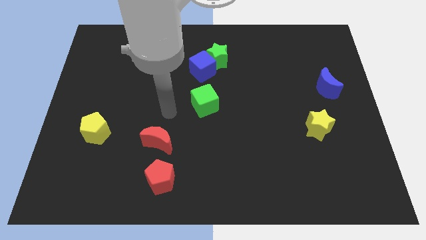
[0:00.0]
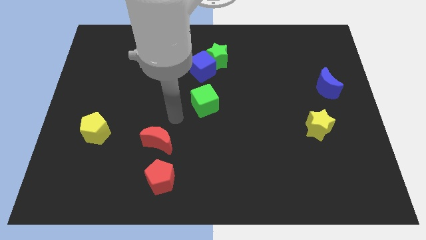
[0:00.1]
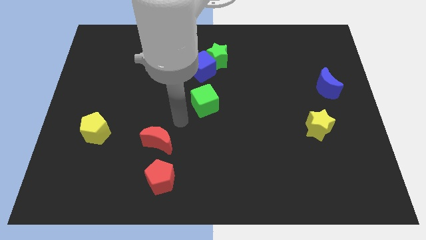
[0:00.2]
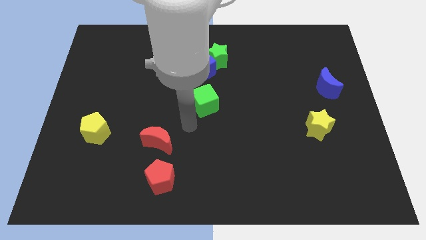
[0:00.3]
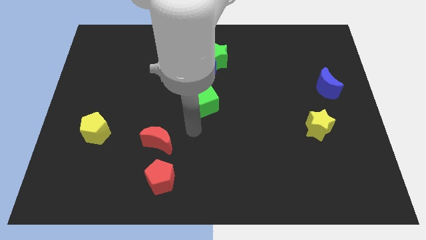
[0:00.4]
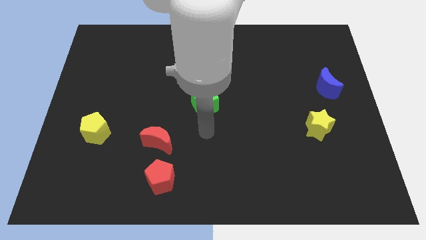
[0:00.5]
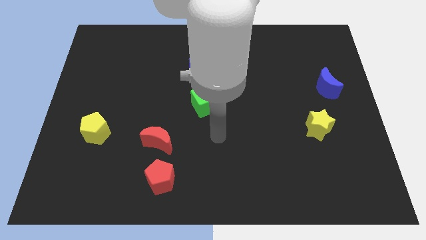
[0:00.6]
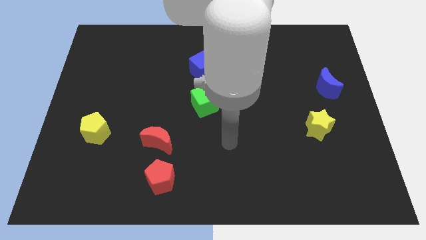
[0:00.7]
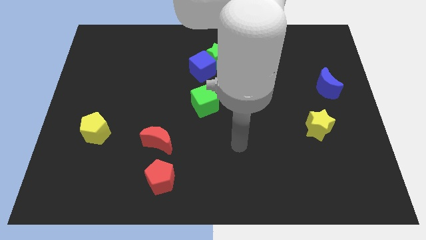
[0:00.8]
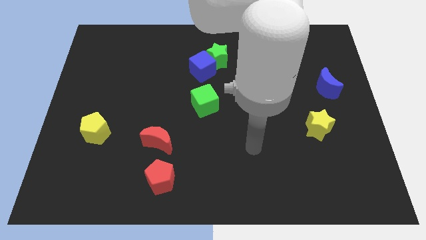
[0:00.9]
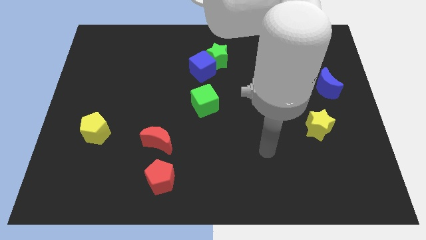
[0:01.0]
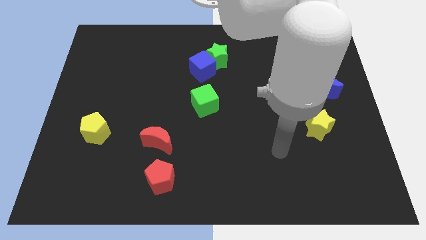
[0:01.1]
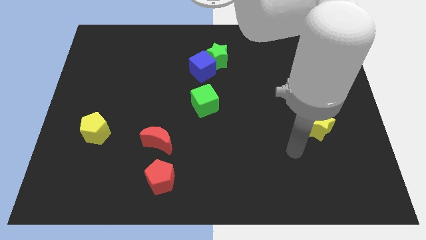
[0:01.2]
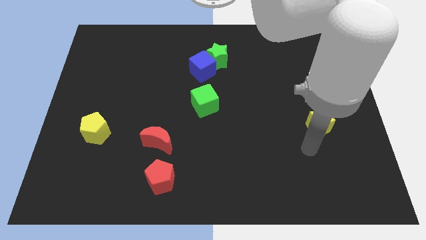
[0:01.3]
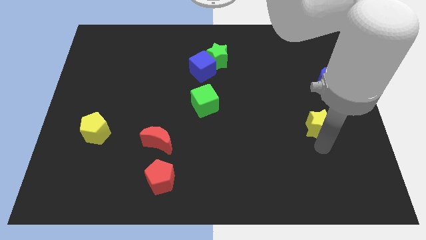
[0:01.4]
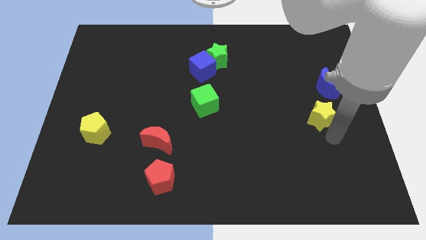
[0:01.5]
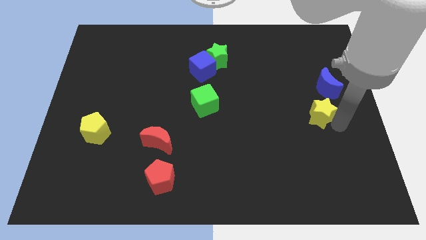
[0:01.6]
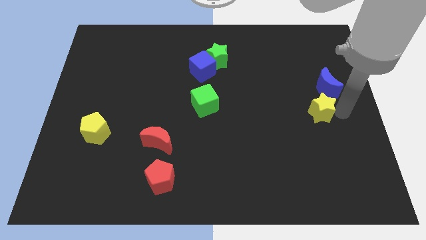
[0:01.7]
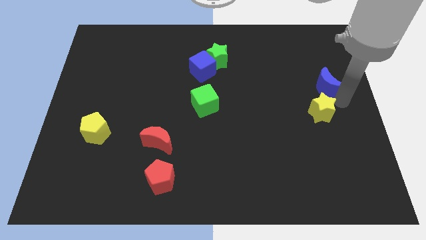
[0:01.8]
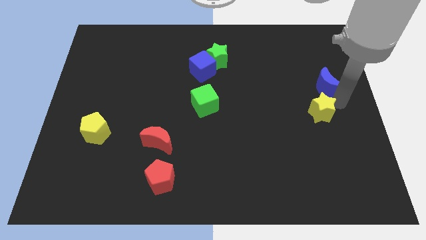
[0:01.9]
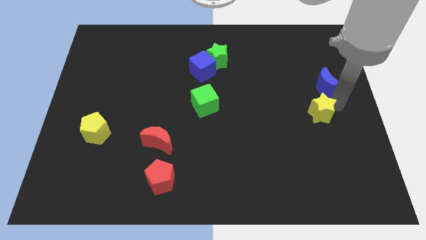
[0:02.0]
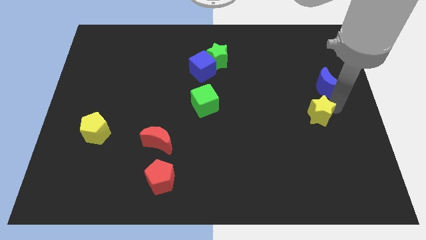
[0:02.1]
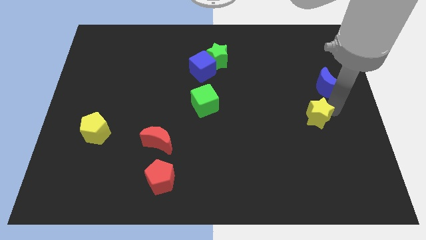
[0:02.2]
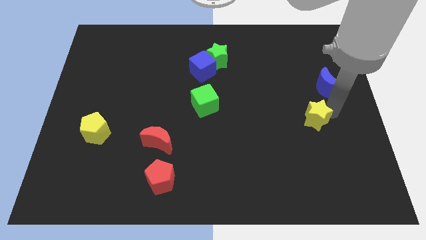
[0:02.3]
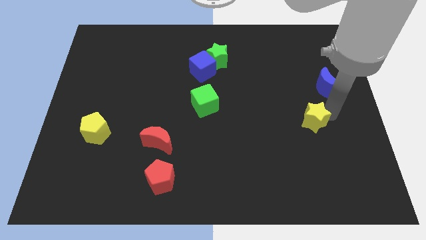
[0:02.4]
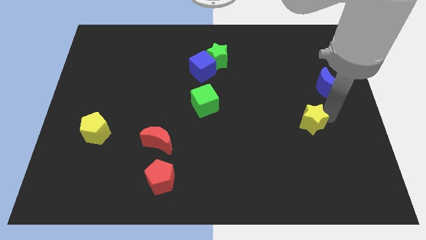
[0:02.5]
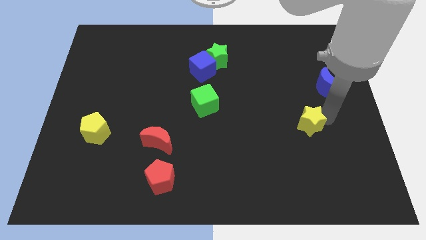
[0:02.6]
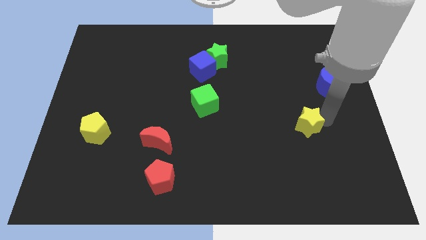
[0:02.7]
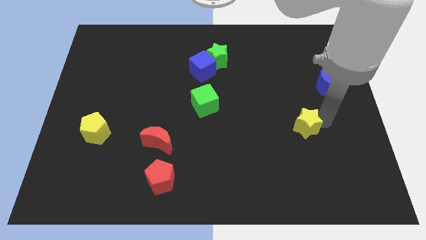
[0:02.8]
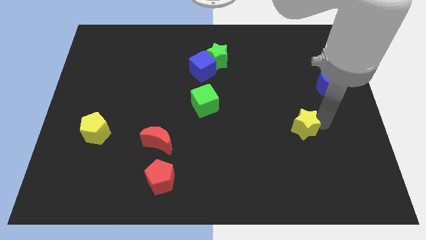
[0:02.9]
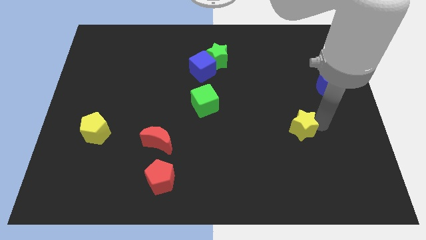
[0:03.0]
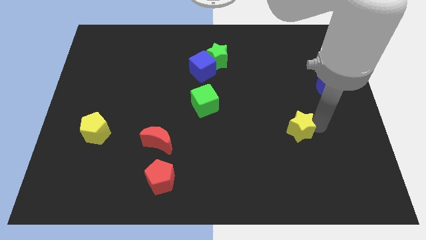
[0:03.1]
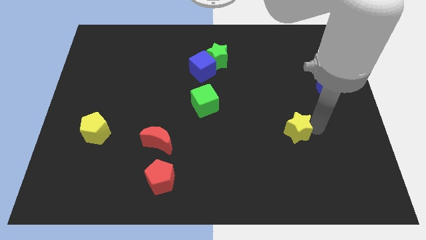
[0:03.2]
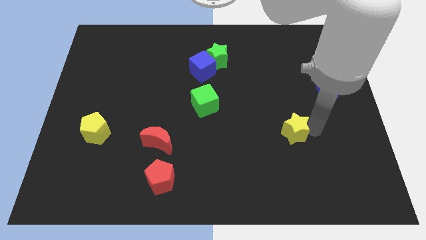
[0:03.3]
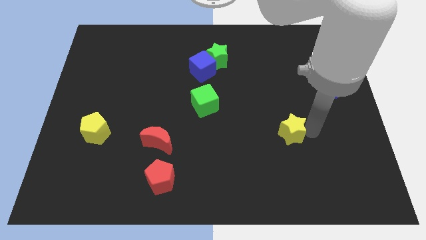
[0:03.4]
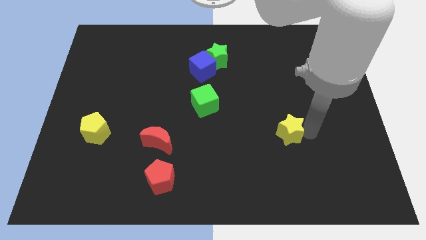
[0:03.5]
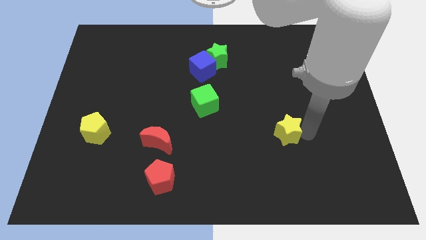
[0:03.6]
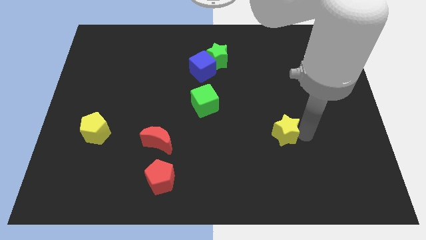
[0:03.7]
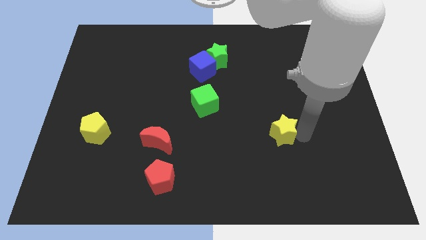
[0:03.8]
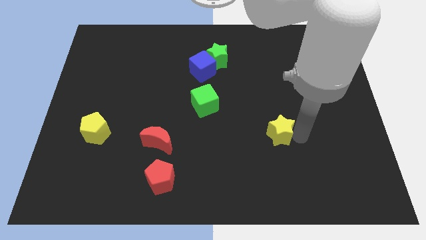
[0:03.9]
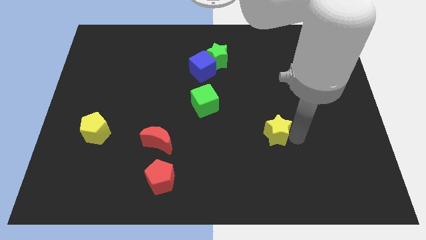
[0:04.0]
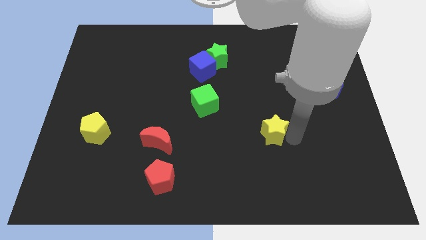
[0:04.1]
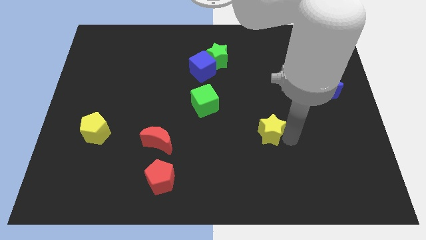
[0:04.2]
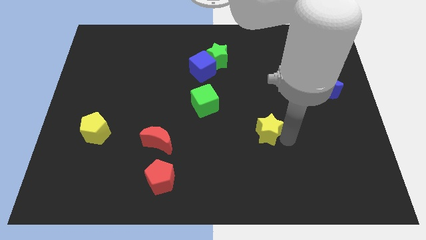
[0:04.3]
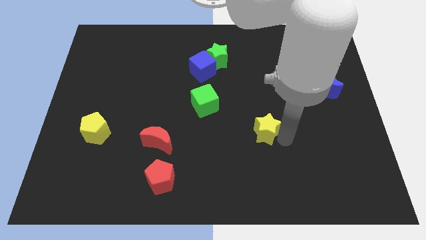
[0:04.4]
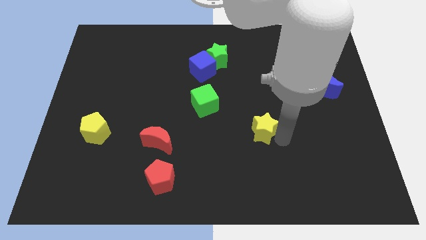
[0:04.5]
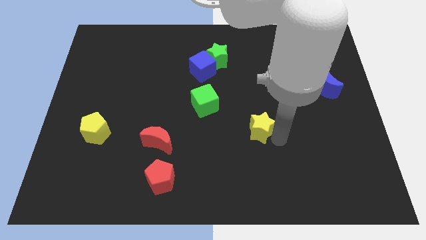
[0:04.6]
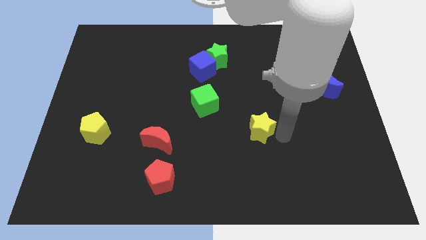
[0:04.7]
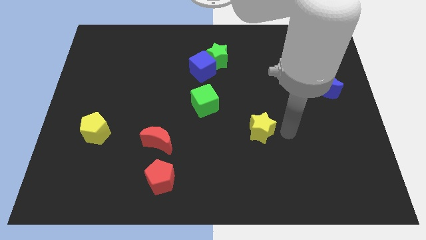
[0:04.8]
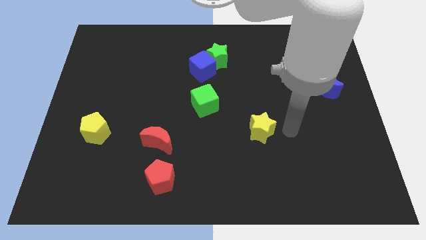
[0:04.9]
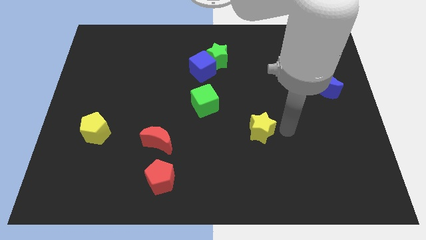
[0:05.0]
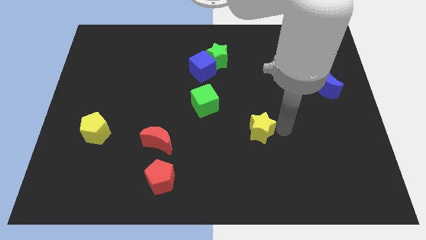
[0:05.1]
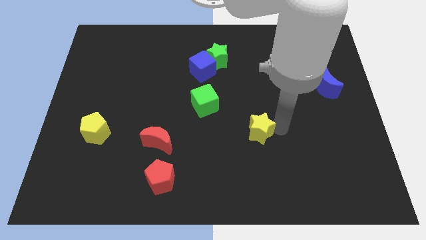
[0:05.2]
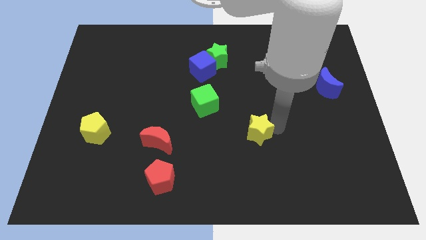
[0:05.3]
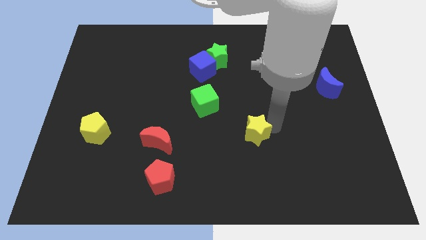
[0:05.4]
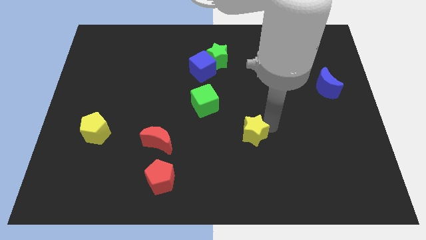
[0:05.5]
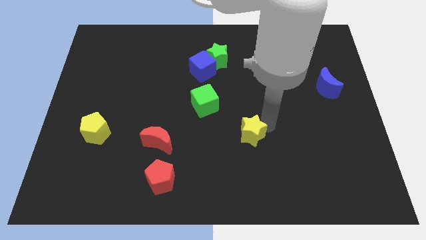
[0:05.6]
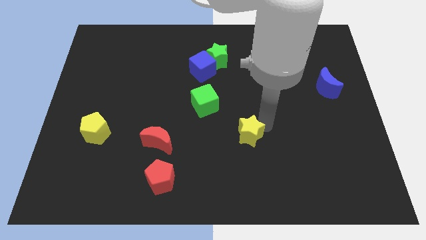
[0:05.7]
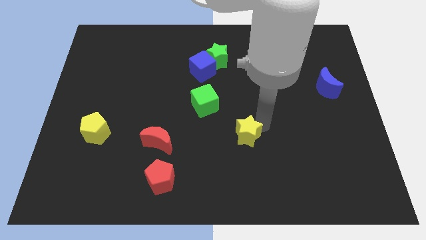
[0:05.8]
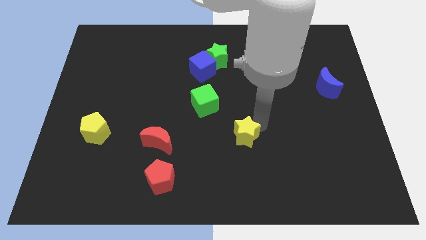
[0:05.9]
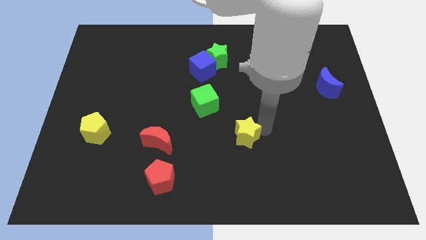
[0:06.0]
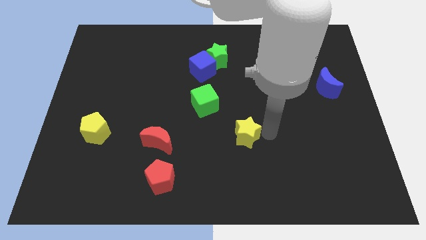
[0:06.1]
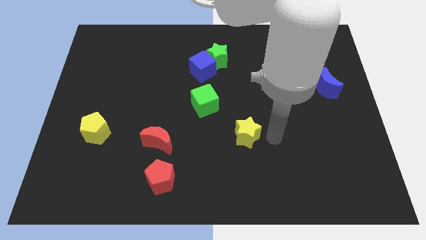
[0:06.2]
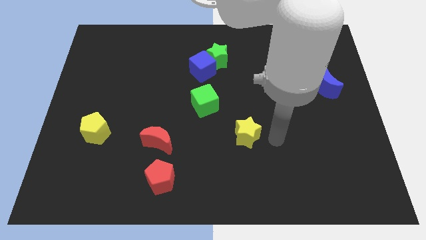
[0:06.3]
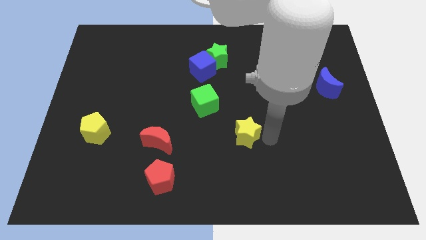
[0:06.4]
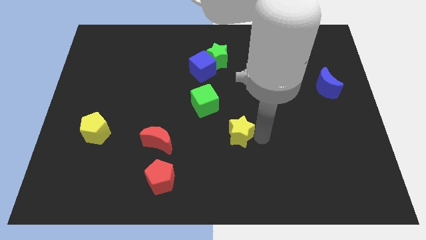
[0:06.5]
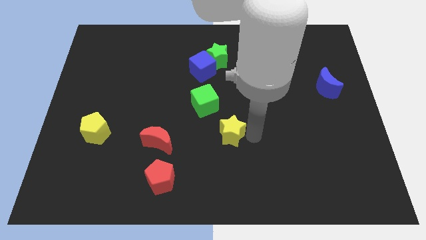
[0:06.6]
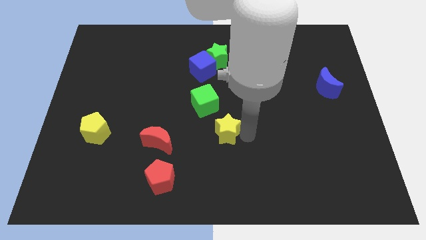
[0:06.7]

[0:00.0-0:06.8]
push the yellow star to the left

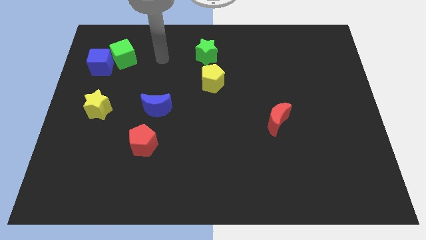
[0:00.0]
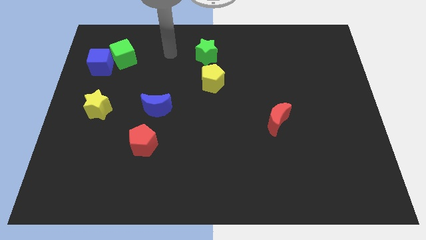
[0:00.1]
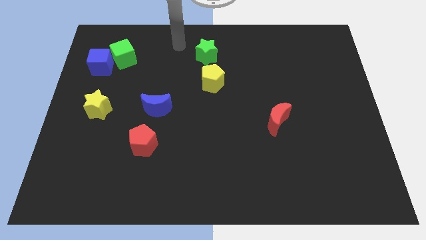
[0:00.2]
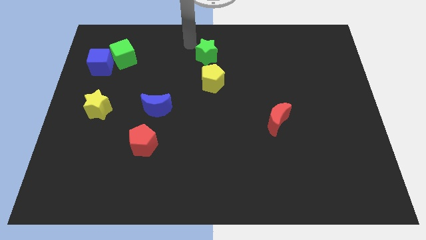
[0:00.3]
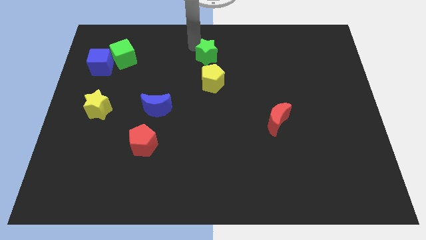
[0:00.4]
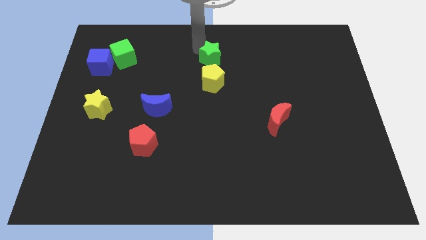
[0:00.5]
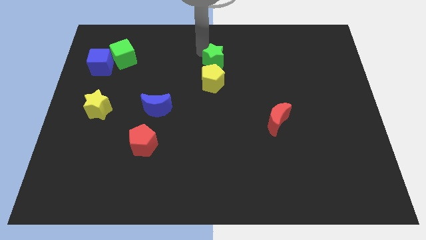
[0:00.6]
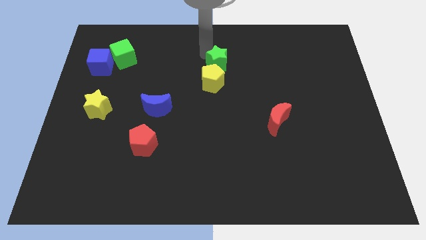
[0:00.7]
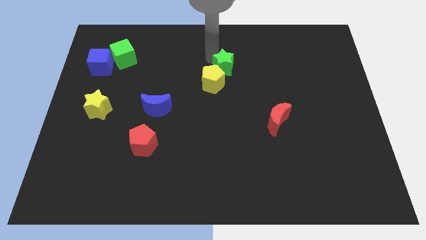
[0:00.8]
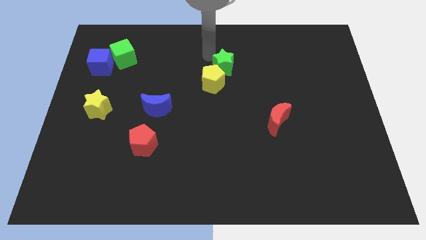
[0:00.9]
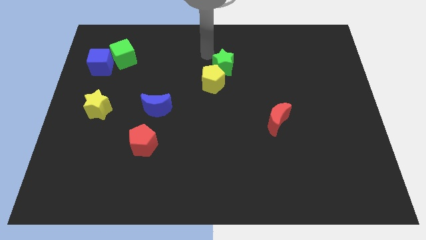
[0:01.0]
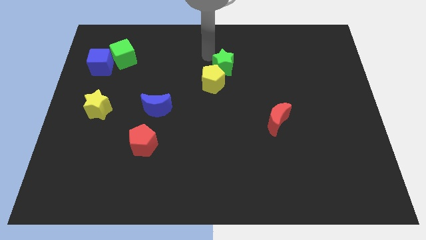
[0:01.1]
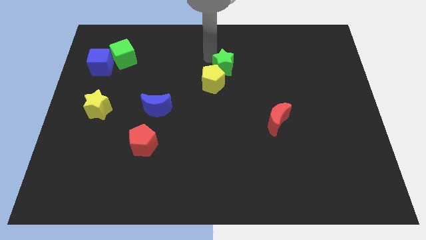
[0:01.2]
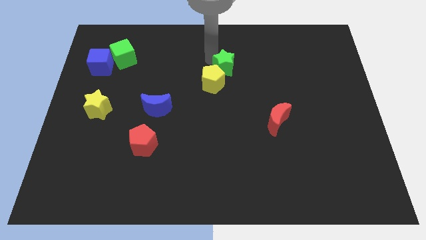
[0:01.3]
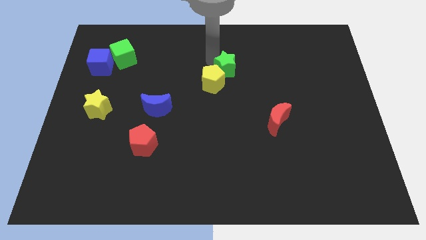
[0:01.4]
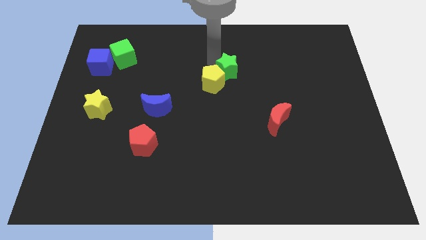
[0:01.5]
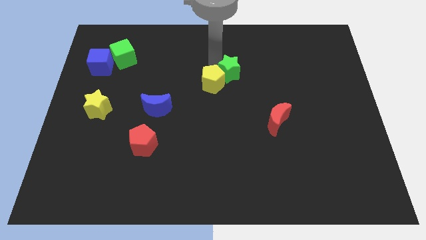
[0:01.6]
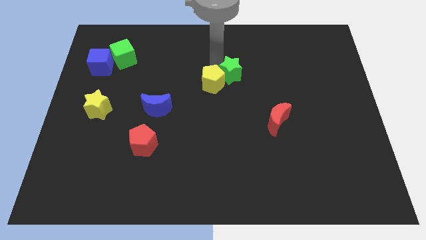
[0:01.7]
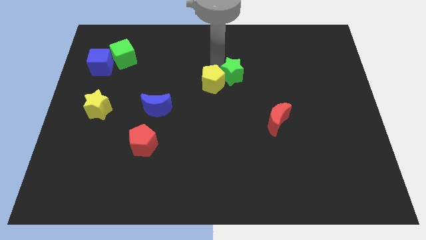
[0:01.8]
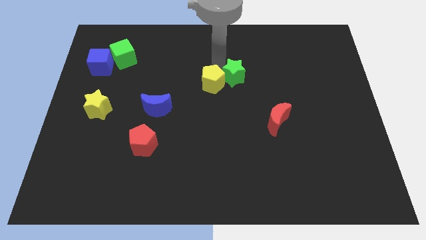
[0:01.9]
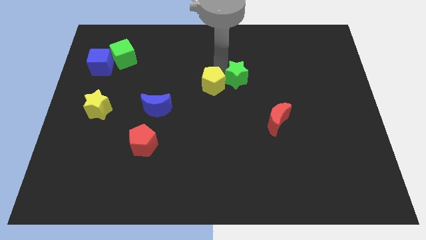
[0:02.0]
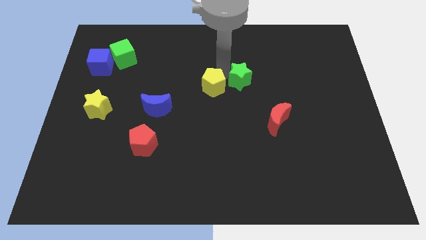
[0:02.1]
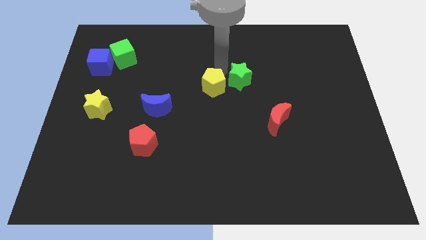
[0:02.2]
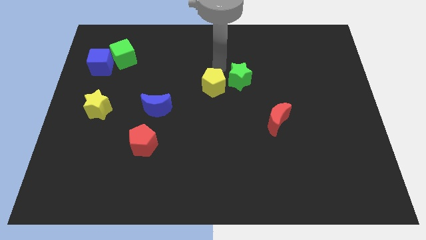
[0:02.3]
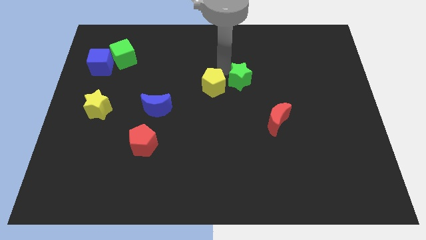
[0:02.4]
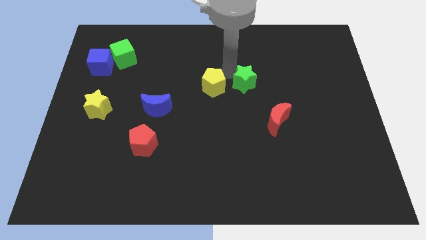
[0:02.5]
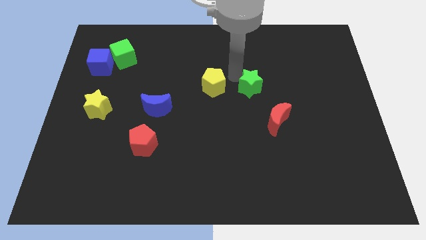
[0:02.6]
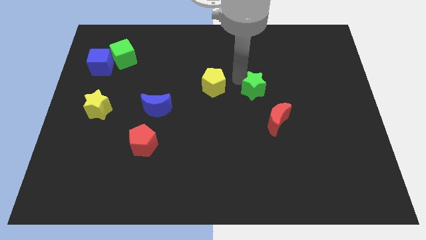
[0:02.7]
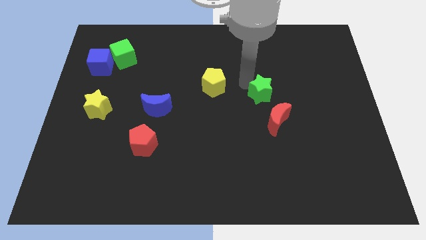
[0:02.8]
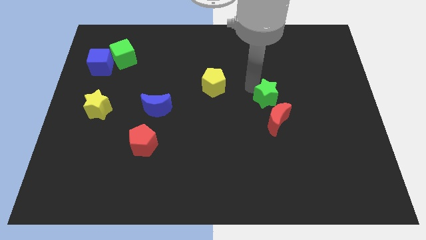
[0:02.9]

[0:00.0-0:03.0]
move the green star down and then to the right
